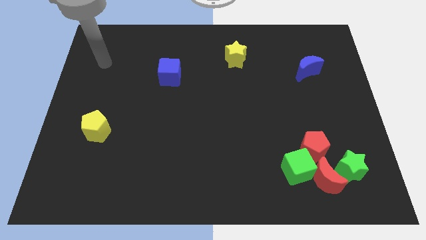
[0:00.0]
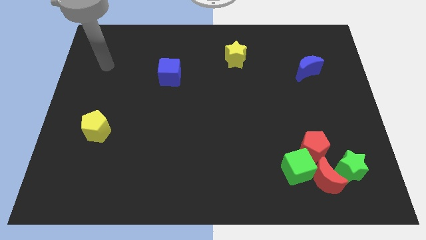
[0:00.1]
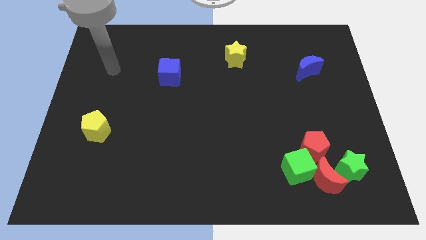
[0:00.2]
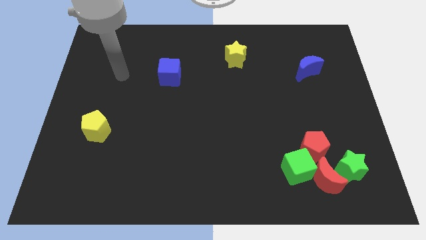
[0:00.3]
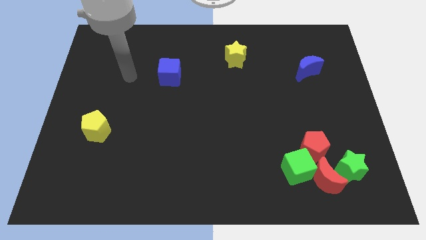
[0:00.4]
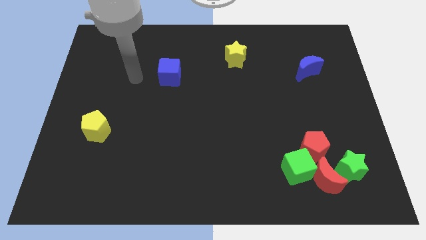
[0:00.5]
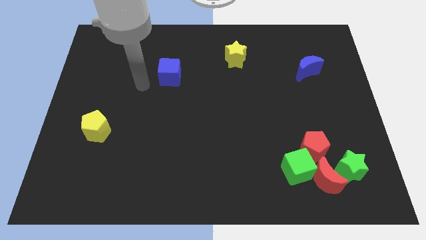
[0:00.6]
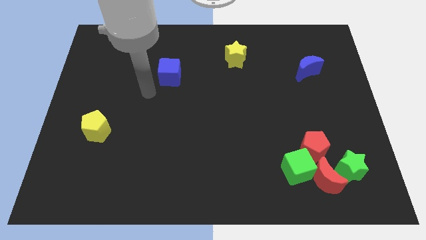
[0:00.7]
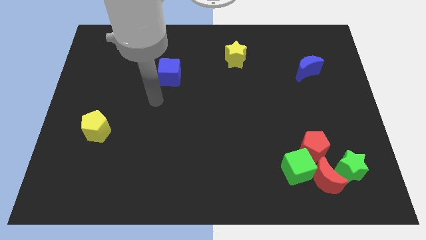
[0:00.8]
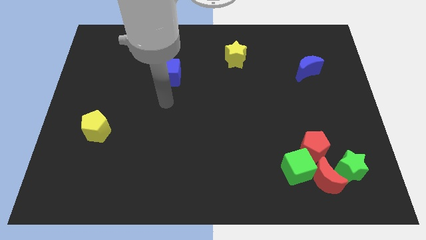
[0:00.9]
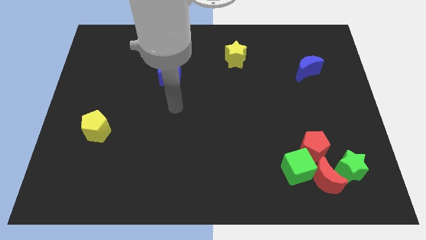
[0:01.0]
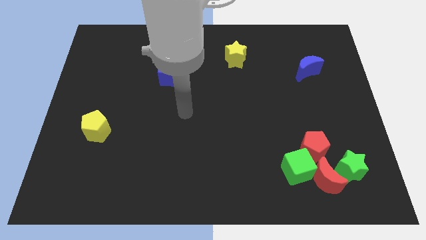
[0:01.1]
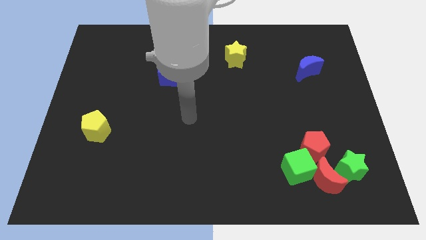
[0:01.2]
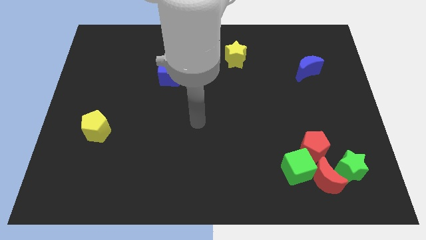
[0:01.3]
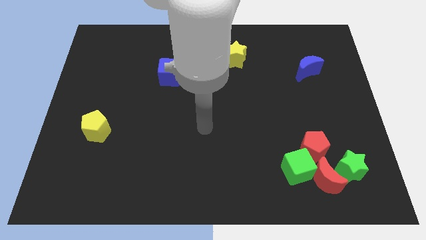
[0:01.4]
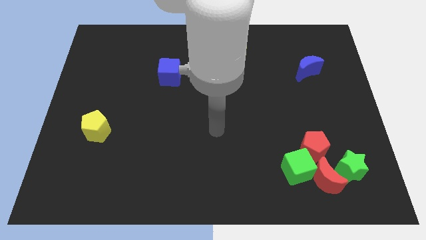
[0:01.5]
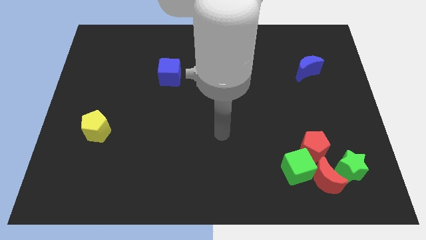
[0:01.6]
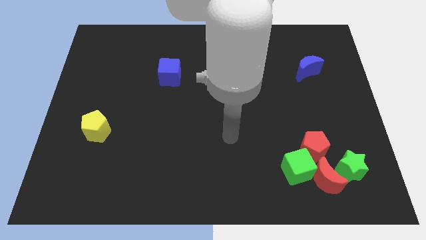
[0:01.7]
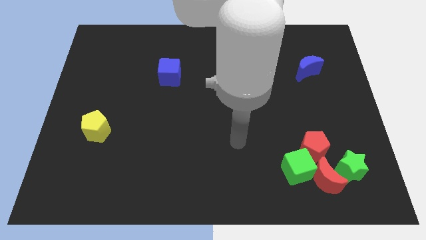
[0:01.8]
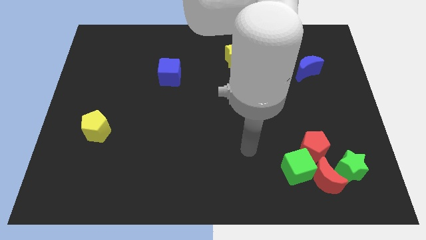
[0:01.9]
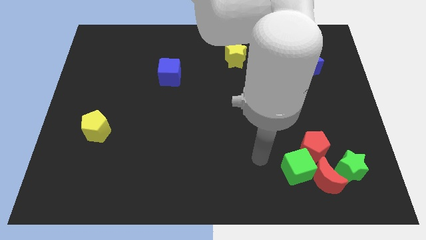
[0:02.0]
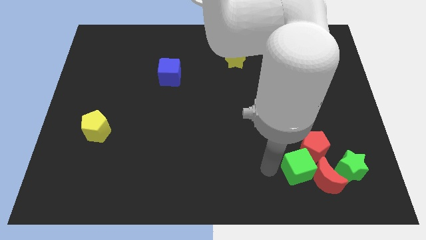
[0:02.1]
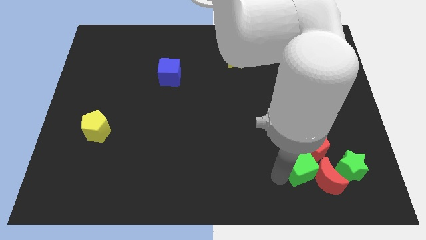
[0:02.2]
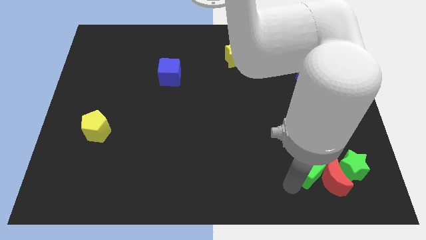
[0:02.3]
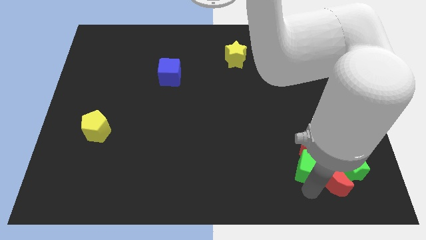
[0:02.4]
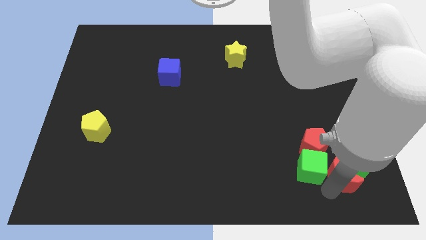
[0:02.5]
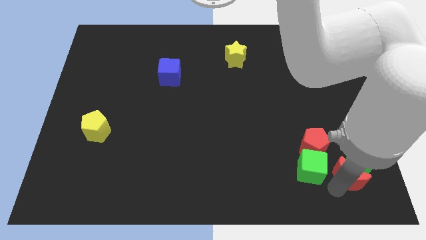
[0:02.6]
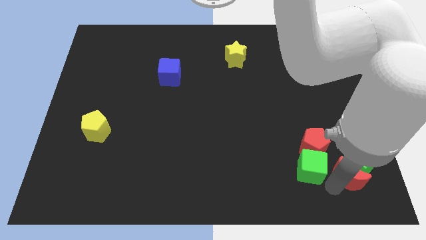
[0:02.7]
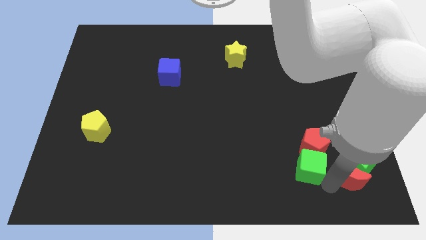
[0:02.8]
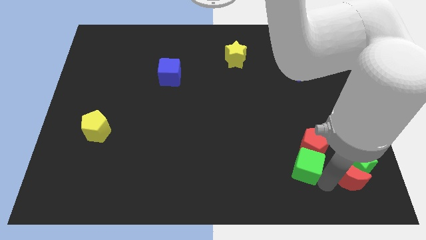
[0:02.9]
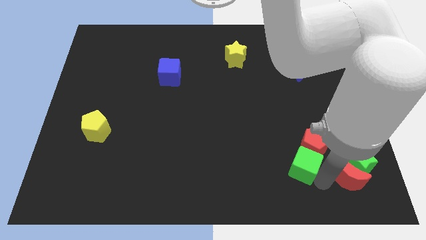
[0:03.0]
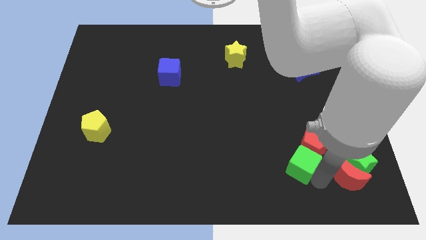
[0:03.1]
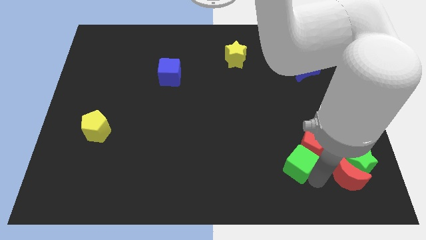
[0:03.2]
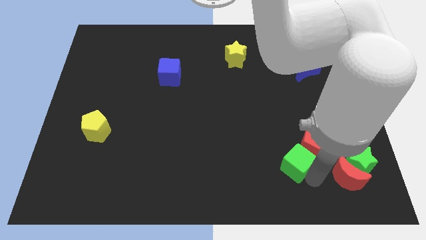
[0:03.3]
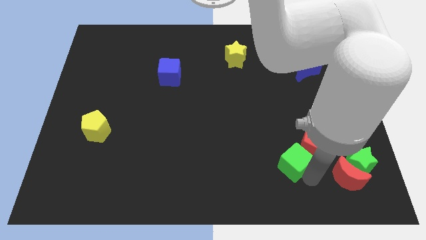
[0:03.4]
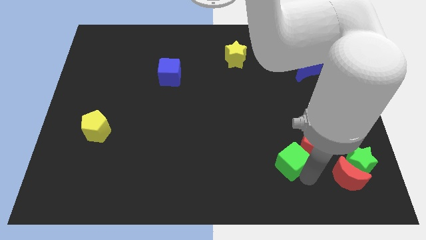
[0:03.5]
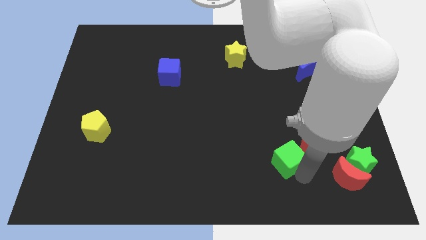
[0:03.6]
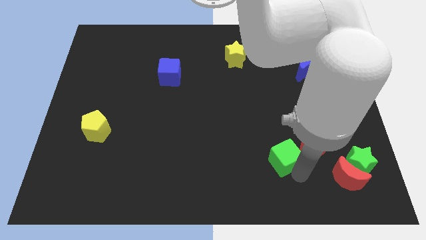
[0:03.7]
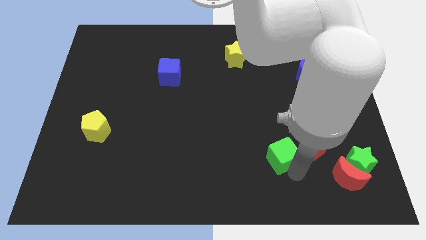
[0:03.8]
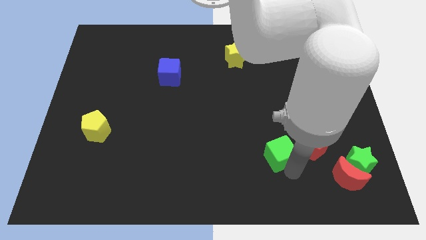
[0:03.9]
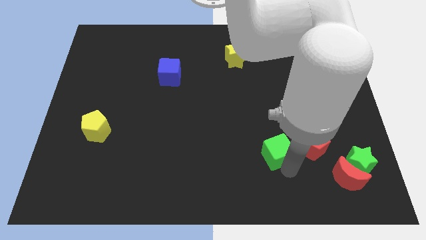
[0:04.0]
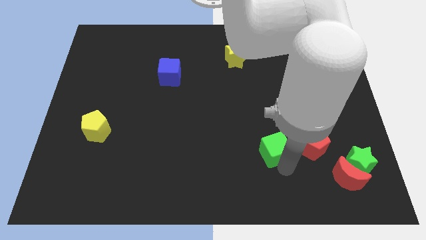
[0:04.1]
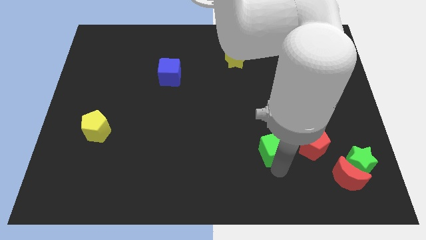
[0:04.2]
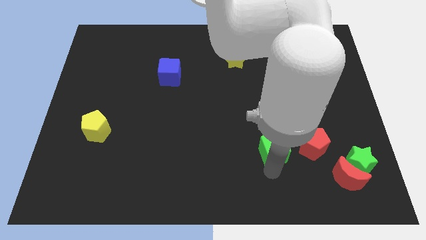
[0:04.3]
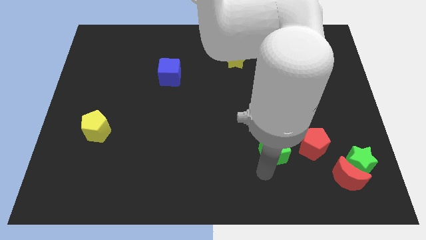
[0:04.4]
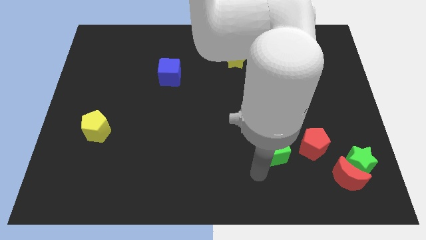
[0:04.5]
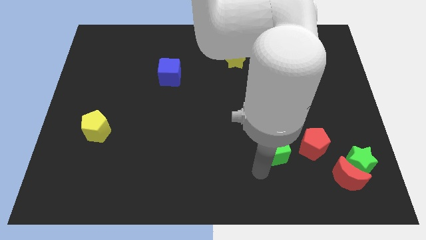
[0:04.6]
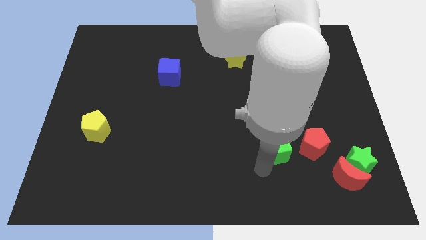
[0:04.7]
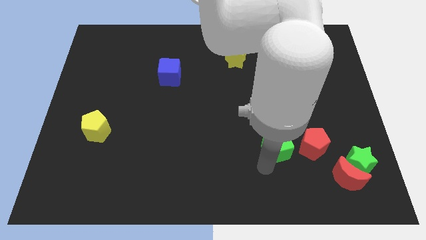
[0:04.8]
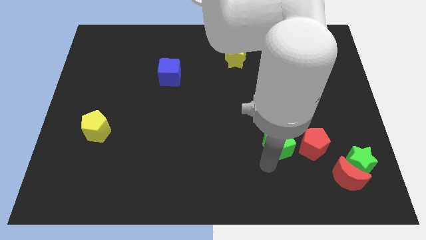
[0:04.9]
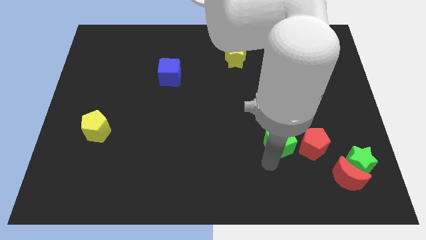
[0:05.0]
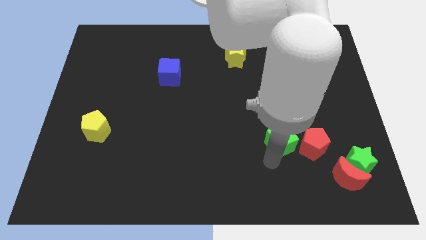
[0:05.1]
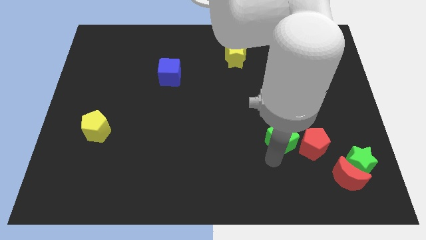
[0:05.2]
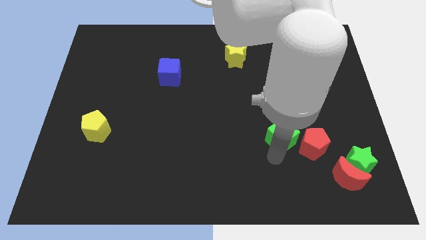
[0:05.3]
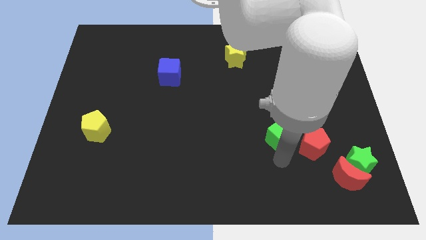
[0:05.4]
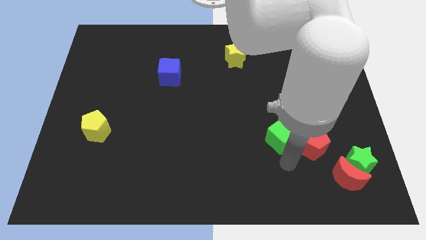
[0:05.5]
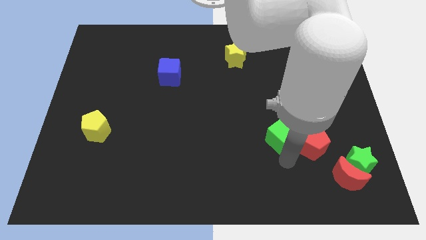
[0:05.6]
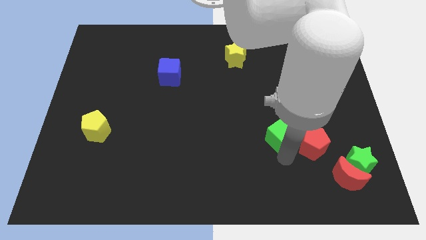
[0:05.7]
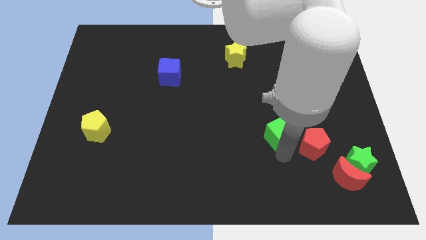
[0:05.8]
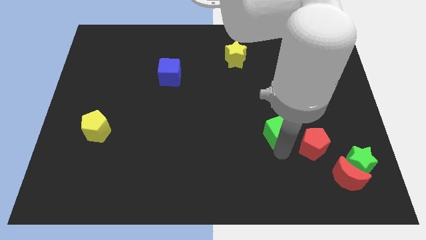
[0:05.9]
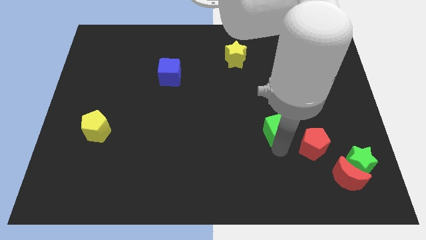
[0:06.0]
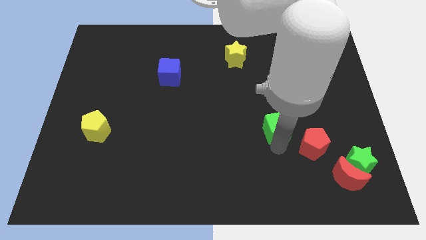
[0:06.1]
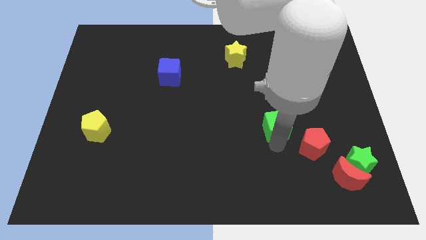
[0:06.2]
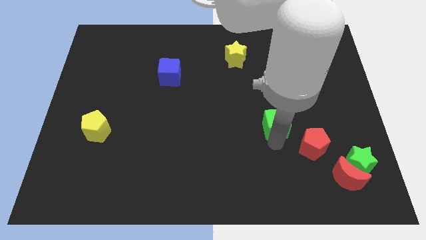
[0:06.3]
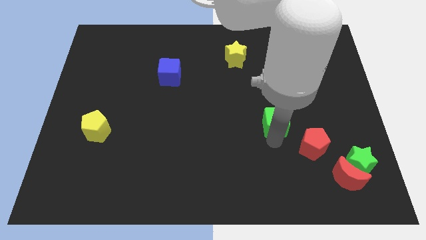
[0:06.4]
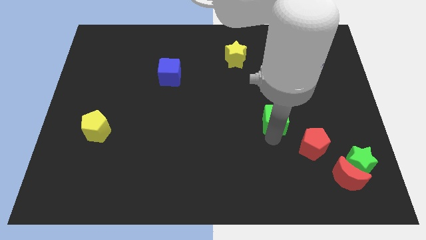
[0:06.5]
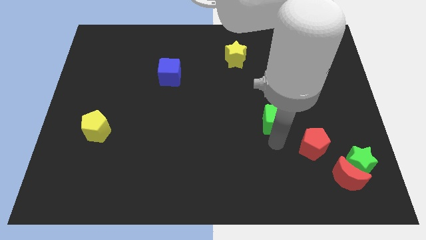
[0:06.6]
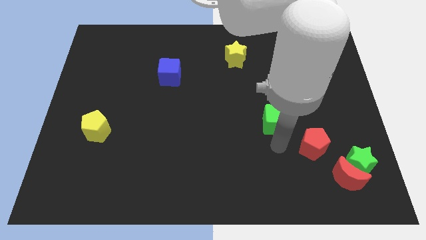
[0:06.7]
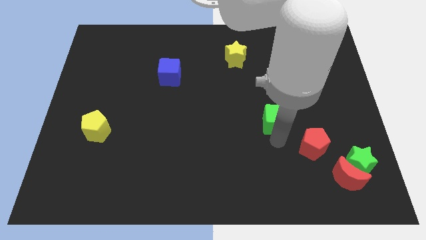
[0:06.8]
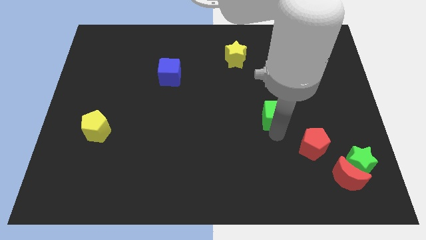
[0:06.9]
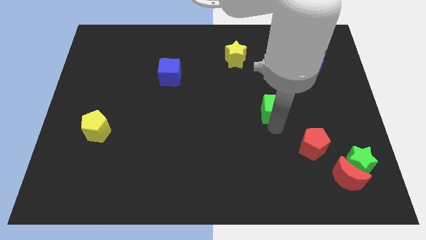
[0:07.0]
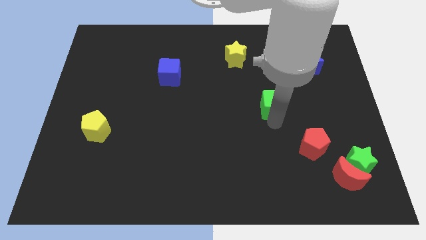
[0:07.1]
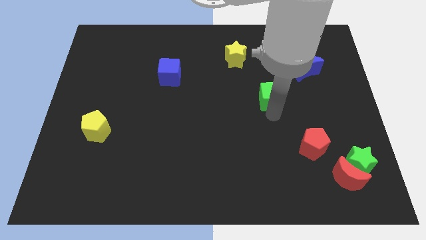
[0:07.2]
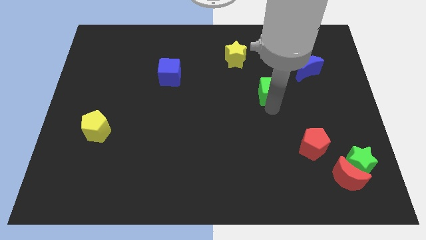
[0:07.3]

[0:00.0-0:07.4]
move the green cube upwards

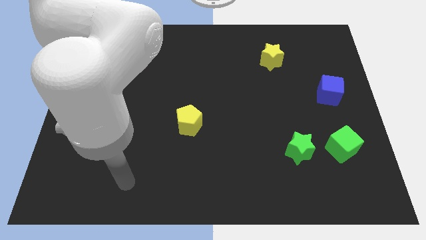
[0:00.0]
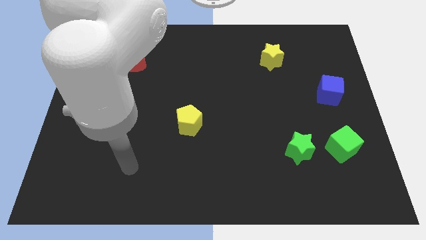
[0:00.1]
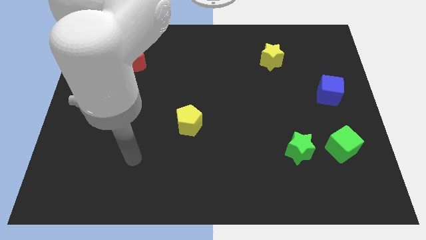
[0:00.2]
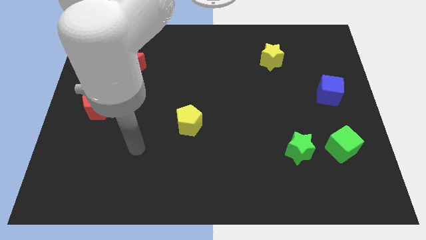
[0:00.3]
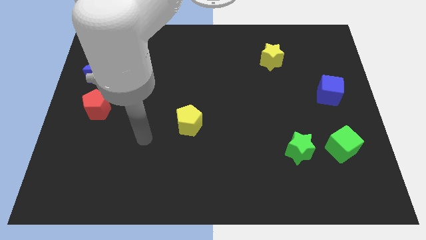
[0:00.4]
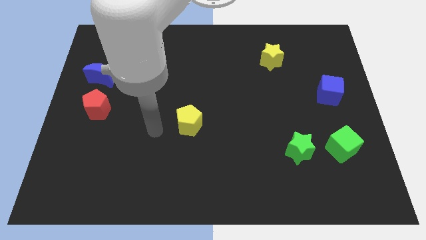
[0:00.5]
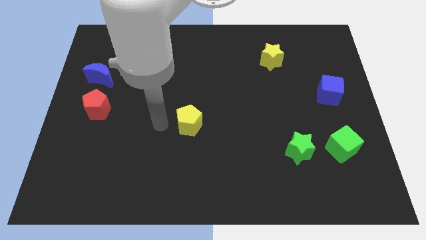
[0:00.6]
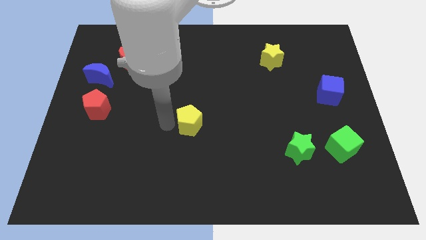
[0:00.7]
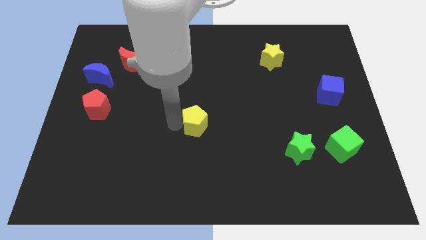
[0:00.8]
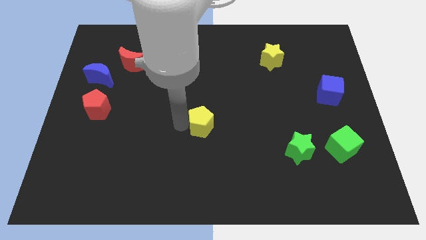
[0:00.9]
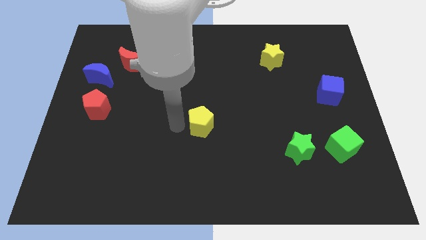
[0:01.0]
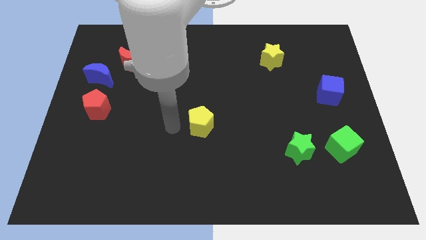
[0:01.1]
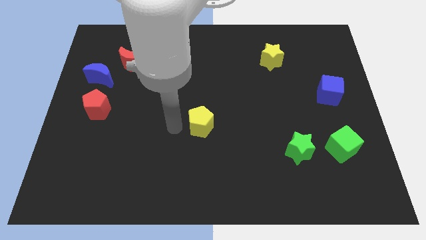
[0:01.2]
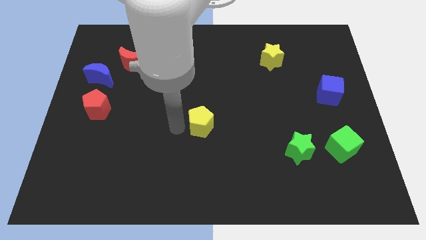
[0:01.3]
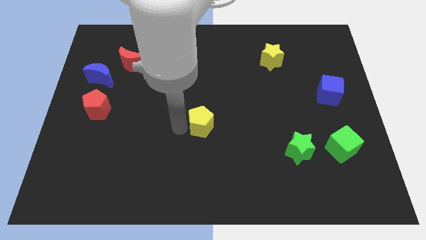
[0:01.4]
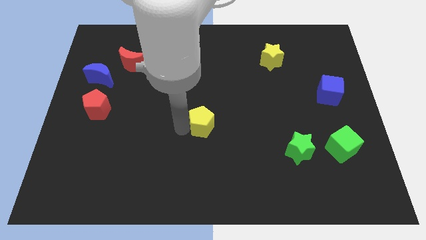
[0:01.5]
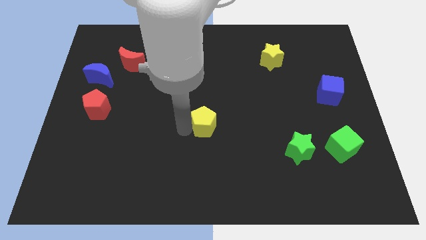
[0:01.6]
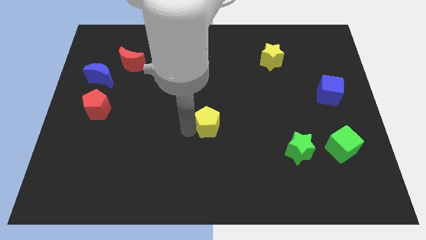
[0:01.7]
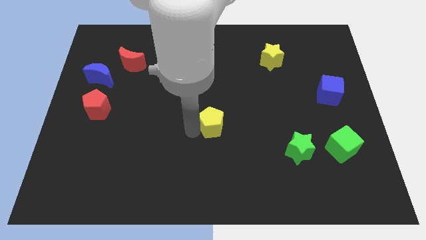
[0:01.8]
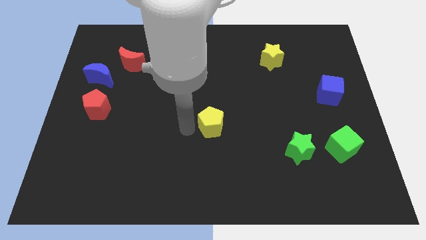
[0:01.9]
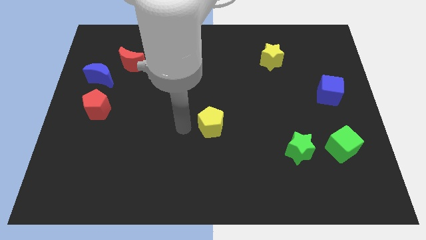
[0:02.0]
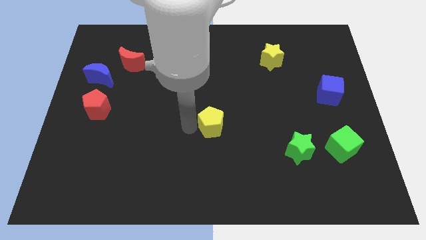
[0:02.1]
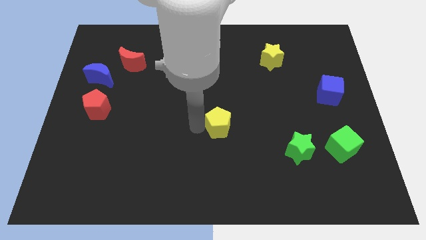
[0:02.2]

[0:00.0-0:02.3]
push the yellow pentagon to the right slightly
